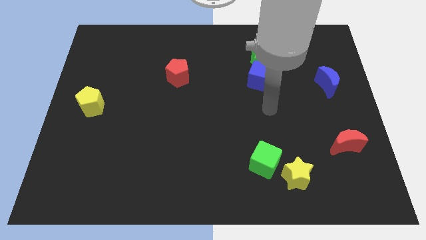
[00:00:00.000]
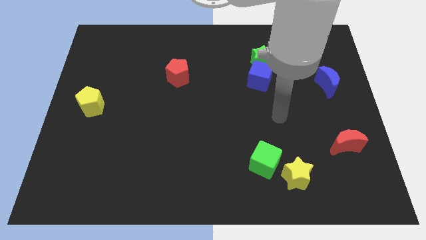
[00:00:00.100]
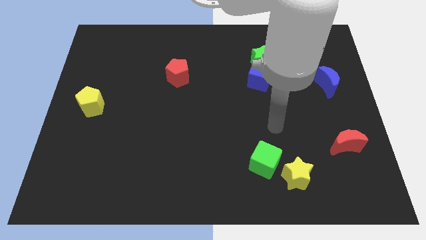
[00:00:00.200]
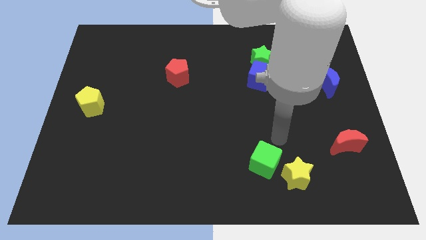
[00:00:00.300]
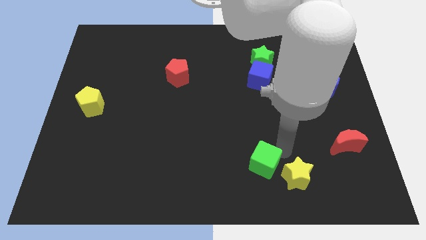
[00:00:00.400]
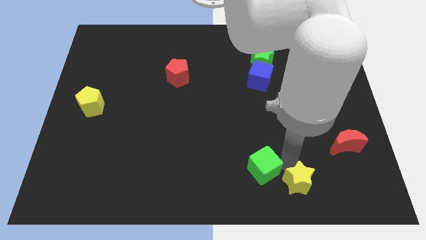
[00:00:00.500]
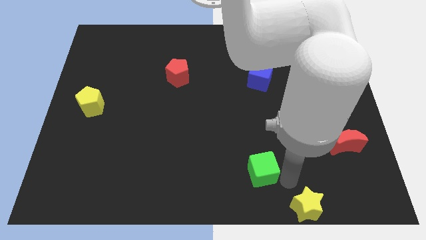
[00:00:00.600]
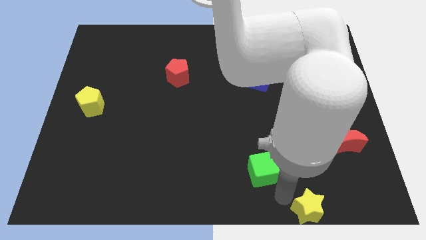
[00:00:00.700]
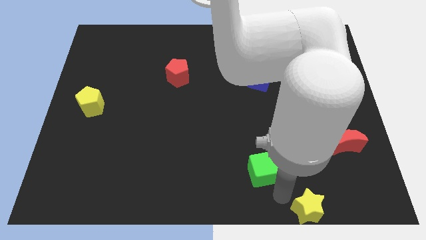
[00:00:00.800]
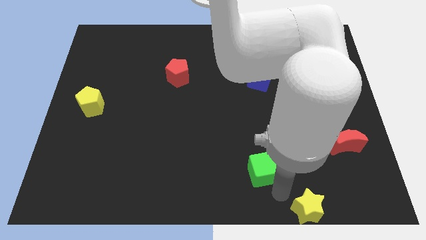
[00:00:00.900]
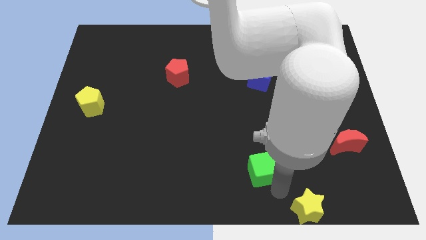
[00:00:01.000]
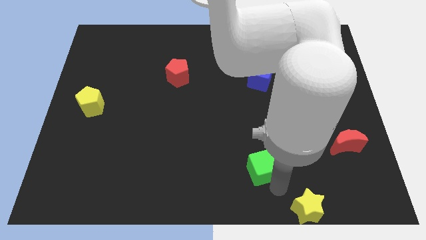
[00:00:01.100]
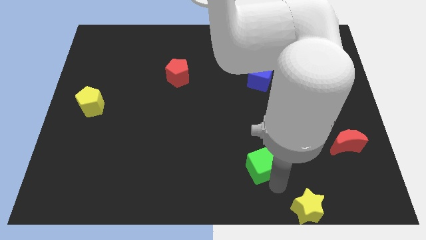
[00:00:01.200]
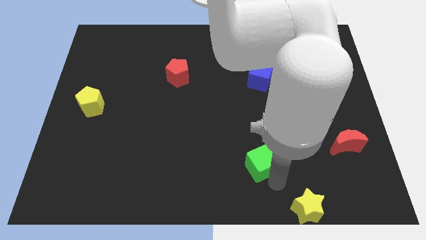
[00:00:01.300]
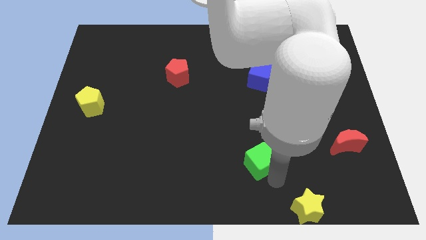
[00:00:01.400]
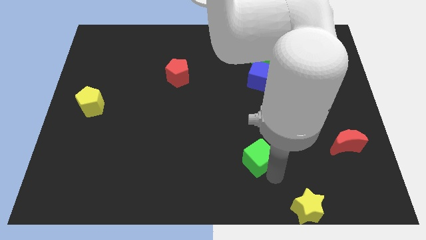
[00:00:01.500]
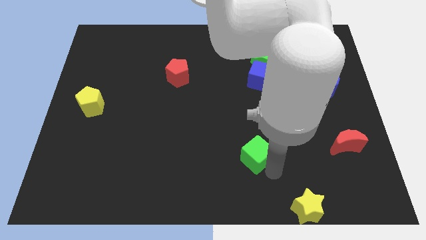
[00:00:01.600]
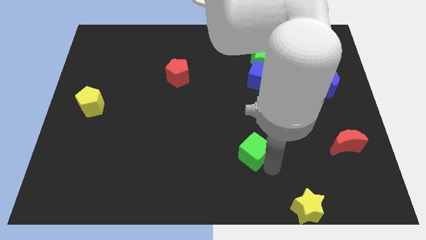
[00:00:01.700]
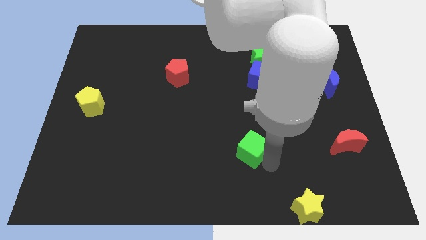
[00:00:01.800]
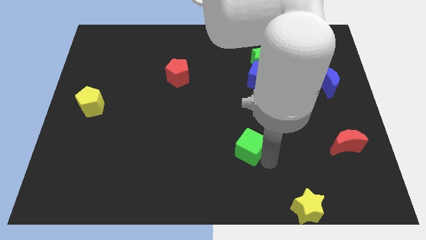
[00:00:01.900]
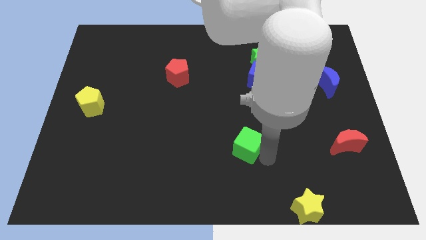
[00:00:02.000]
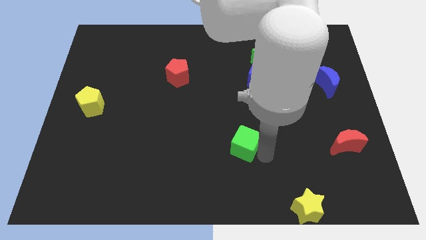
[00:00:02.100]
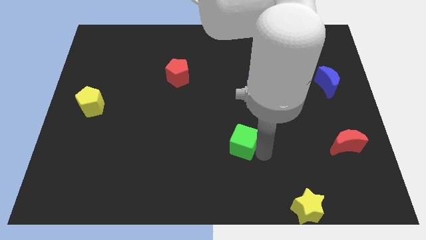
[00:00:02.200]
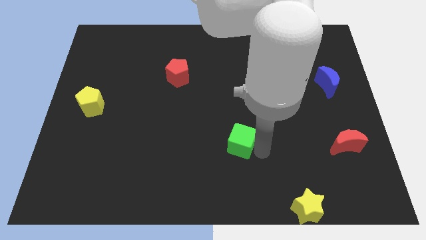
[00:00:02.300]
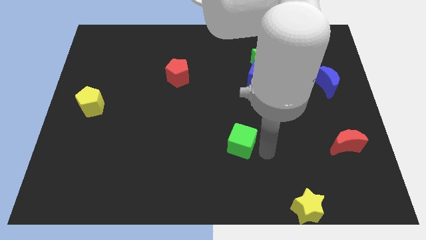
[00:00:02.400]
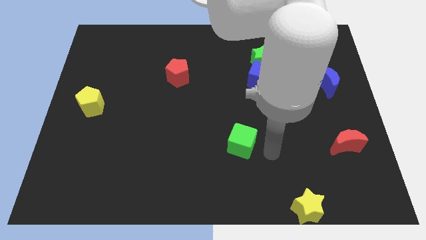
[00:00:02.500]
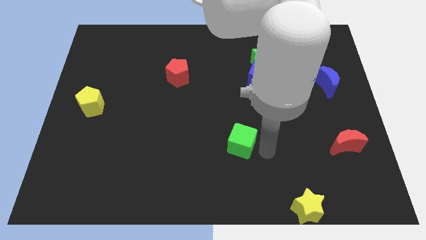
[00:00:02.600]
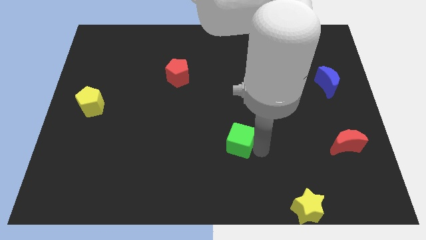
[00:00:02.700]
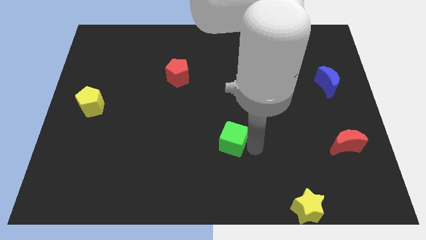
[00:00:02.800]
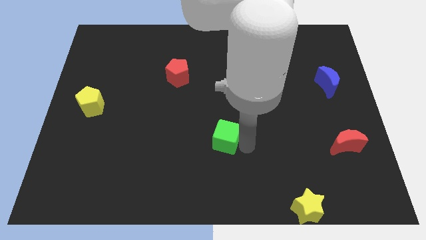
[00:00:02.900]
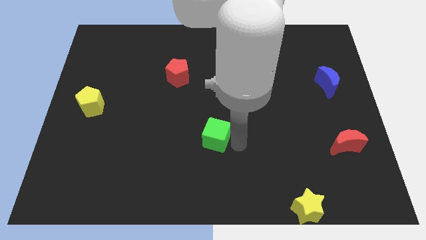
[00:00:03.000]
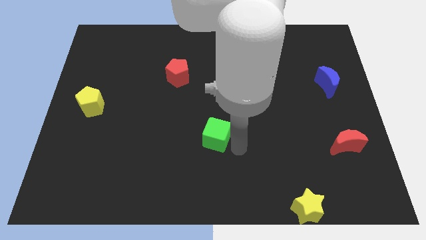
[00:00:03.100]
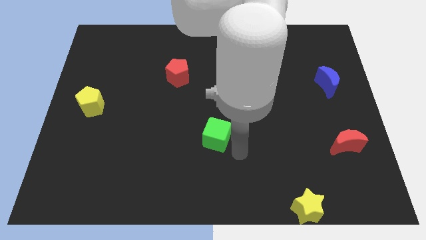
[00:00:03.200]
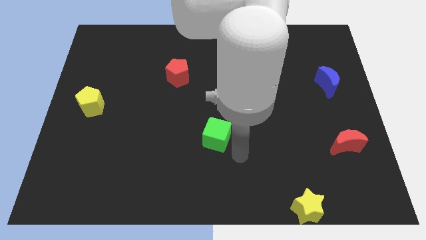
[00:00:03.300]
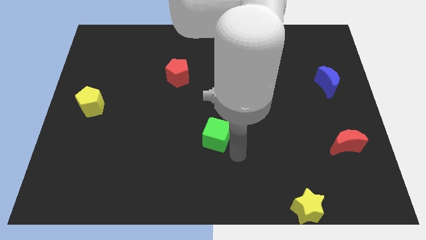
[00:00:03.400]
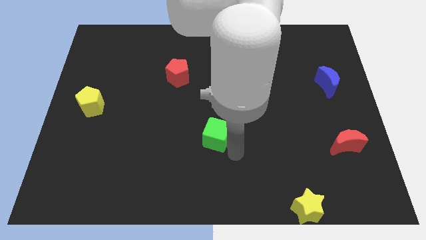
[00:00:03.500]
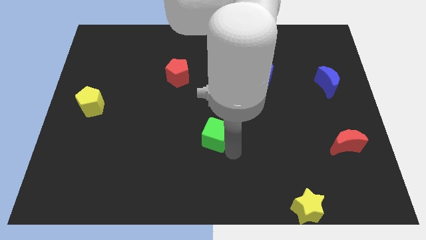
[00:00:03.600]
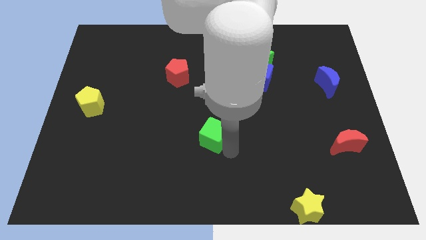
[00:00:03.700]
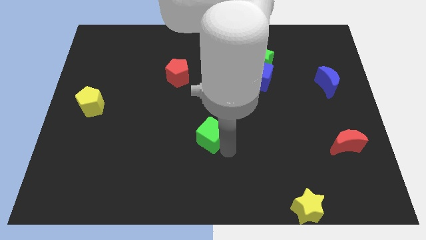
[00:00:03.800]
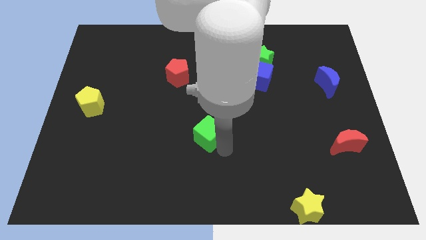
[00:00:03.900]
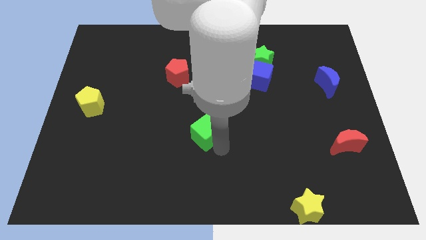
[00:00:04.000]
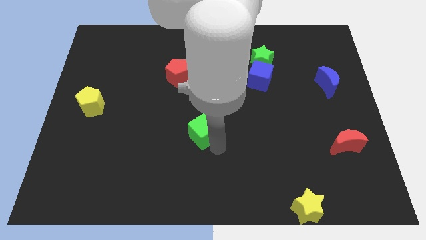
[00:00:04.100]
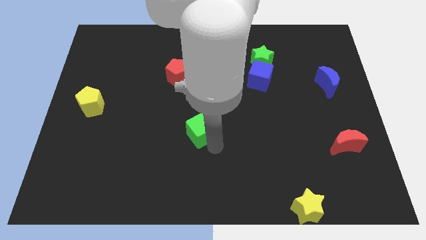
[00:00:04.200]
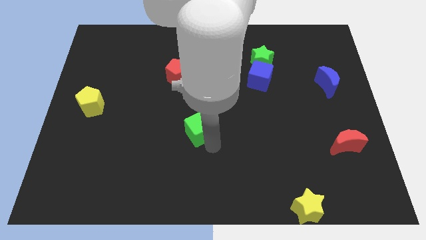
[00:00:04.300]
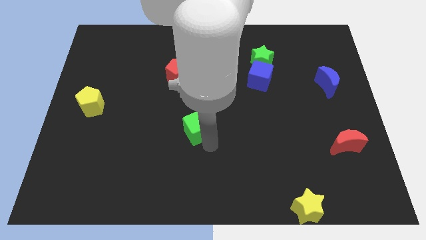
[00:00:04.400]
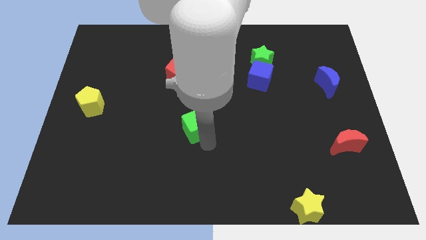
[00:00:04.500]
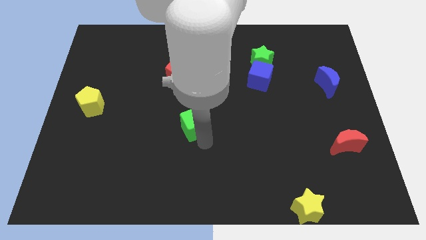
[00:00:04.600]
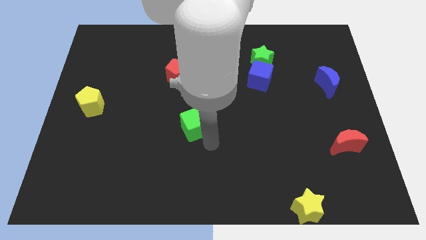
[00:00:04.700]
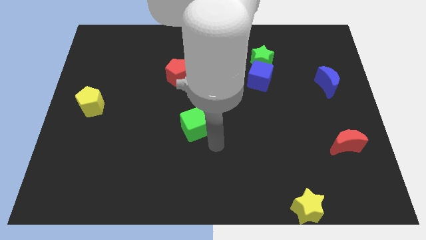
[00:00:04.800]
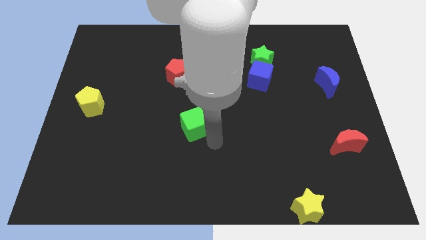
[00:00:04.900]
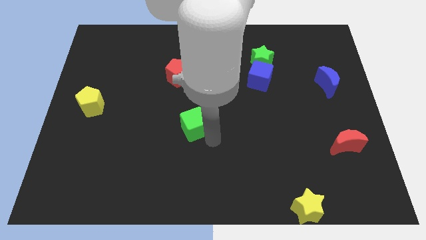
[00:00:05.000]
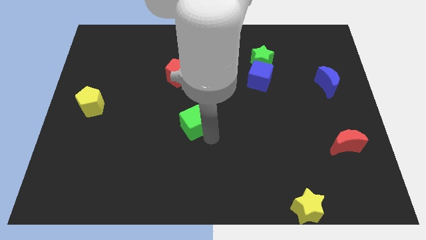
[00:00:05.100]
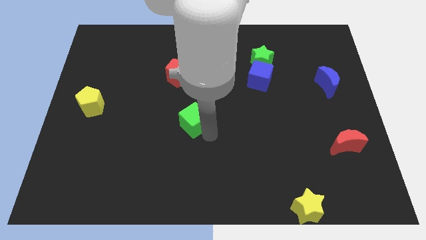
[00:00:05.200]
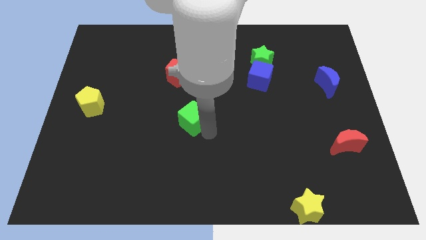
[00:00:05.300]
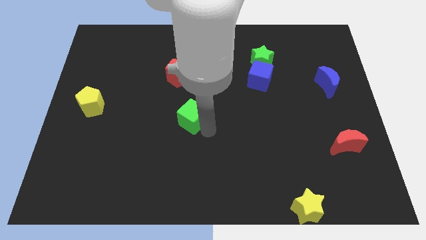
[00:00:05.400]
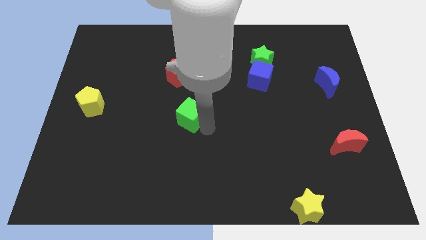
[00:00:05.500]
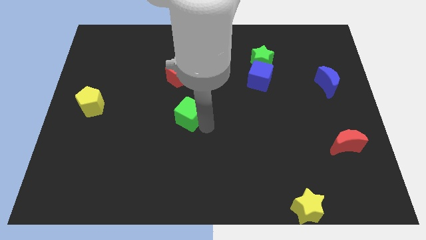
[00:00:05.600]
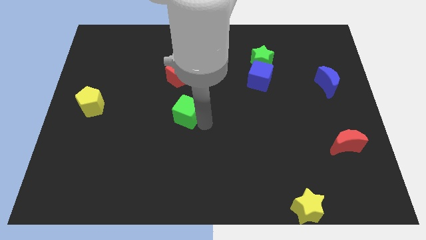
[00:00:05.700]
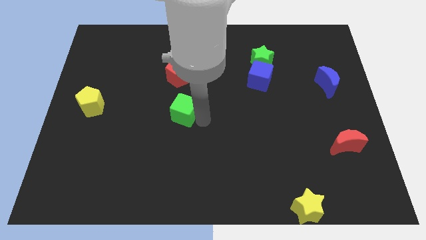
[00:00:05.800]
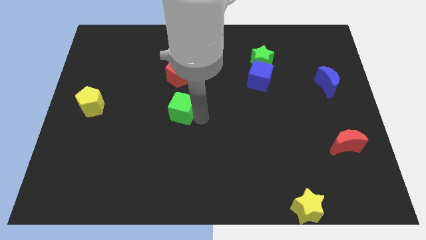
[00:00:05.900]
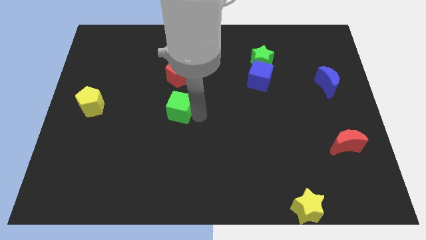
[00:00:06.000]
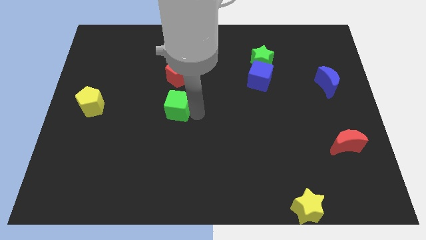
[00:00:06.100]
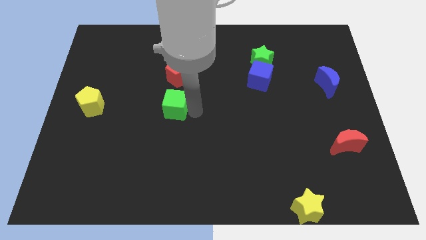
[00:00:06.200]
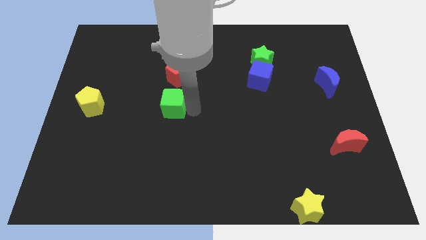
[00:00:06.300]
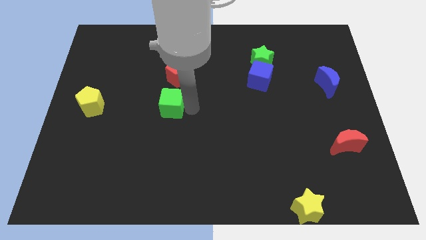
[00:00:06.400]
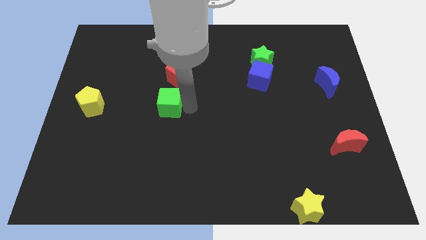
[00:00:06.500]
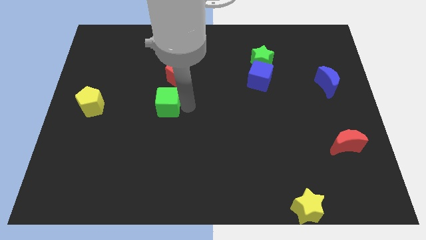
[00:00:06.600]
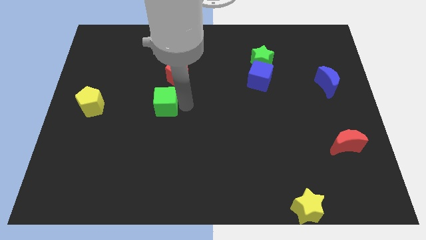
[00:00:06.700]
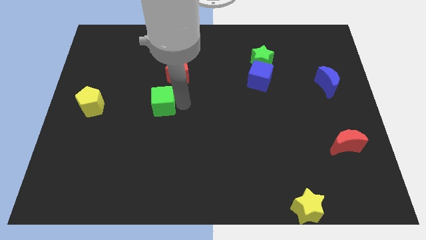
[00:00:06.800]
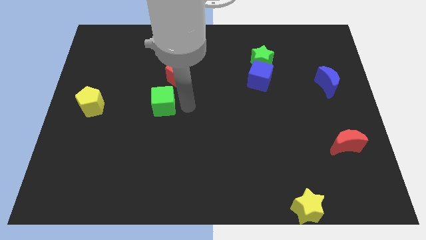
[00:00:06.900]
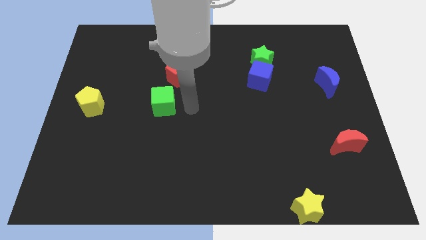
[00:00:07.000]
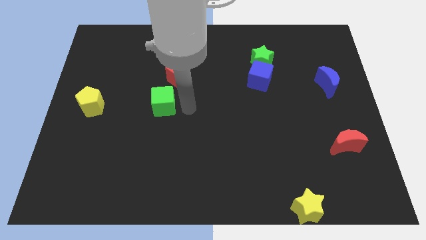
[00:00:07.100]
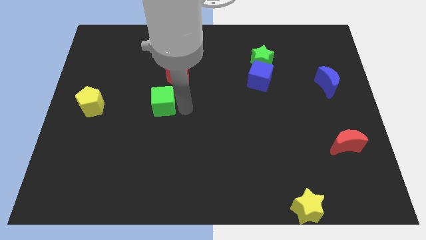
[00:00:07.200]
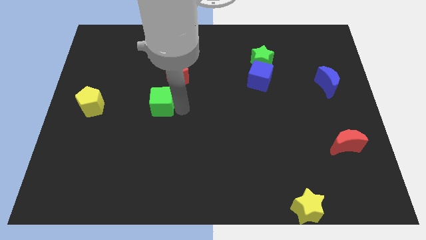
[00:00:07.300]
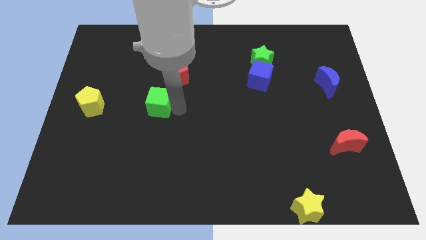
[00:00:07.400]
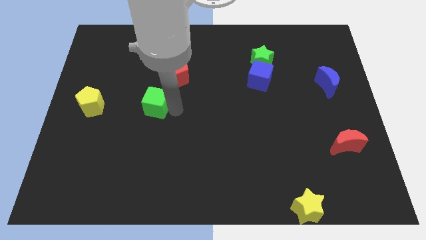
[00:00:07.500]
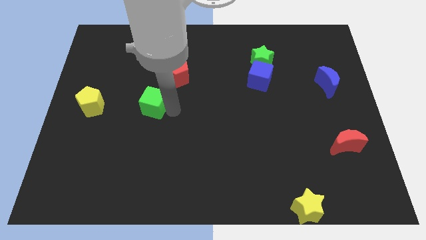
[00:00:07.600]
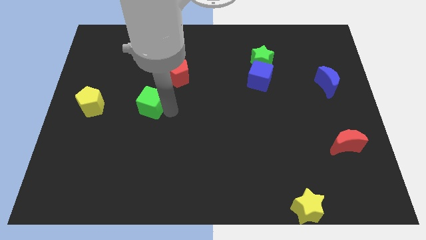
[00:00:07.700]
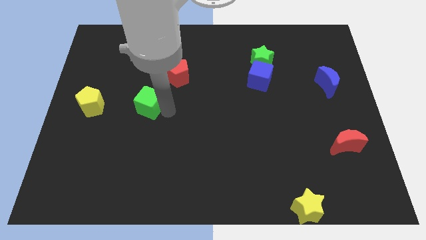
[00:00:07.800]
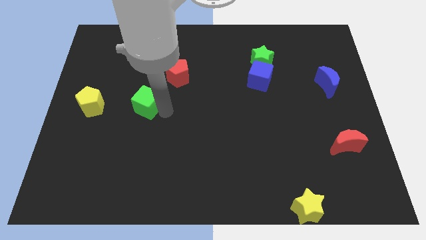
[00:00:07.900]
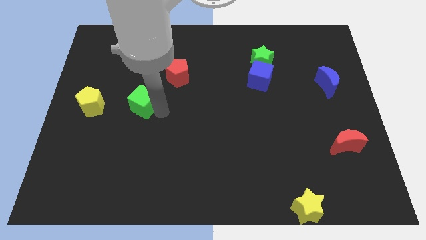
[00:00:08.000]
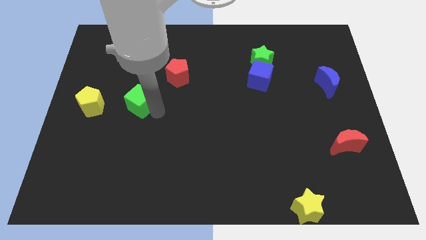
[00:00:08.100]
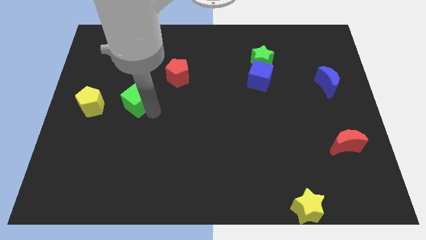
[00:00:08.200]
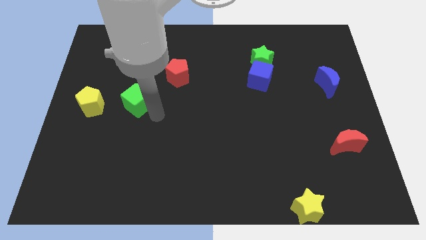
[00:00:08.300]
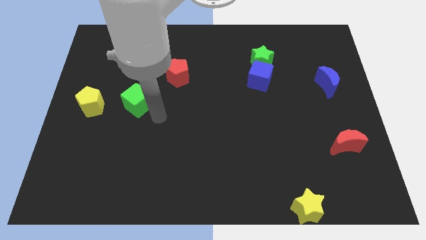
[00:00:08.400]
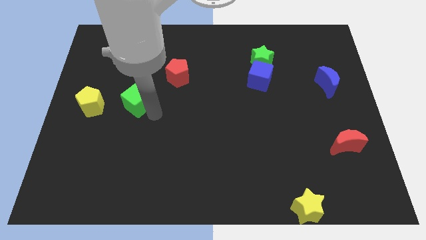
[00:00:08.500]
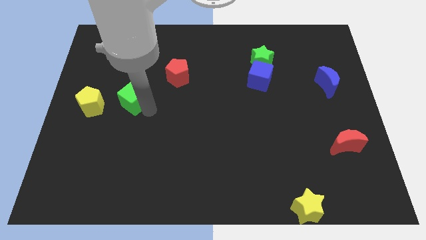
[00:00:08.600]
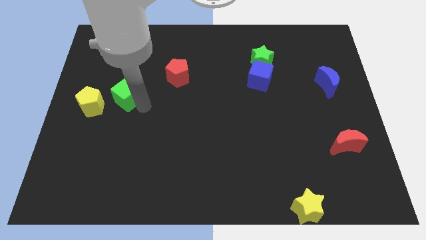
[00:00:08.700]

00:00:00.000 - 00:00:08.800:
put the green cube to the top right side of the yellow pentagon

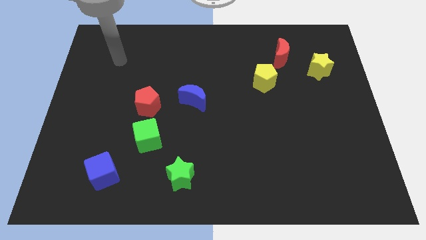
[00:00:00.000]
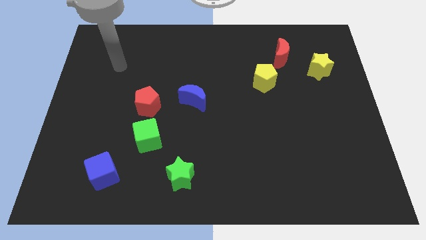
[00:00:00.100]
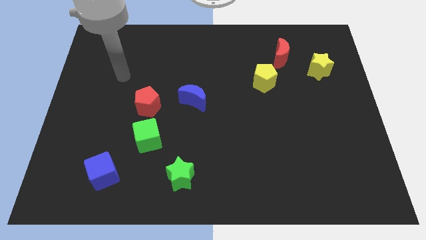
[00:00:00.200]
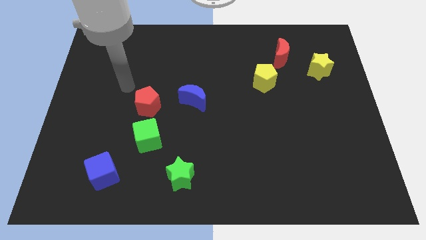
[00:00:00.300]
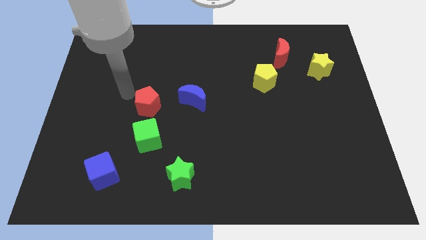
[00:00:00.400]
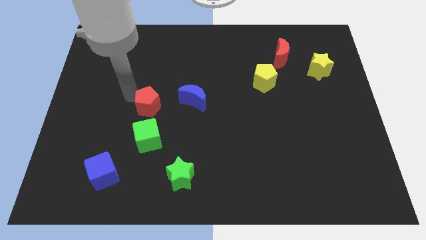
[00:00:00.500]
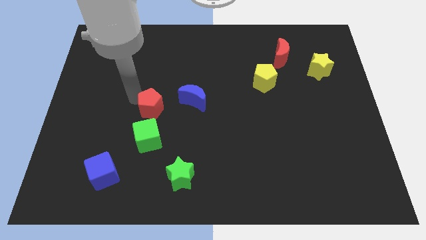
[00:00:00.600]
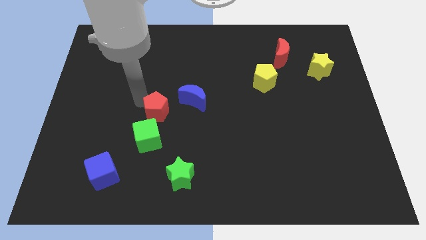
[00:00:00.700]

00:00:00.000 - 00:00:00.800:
move the red pentagon to the top right side of the green cube
